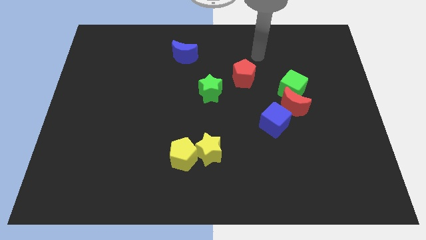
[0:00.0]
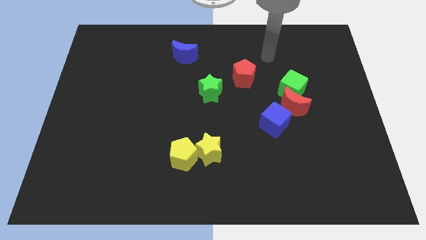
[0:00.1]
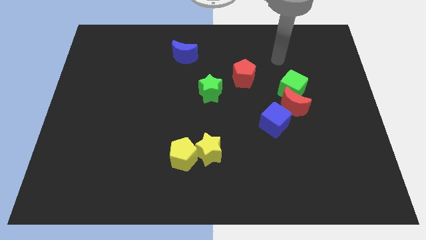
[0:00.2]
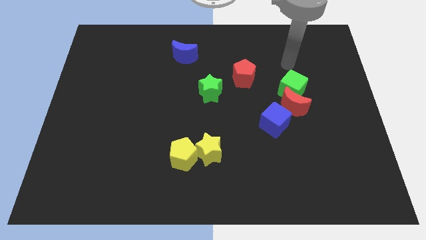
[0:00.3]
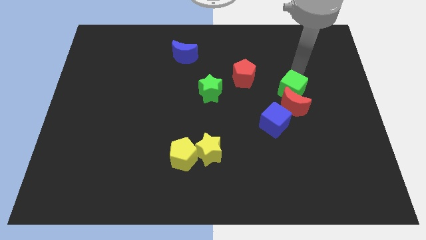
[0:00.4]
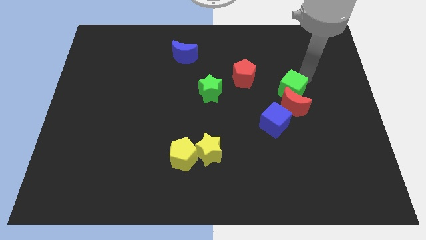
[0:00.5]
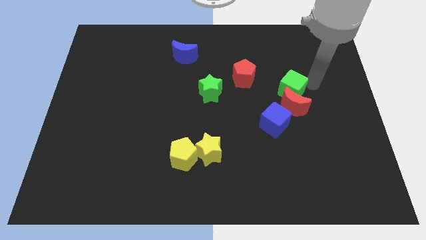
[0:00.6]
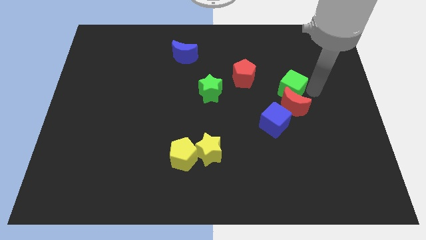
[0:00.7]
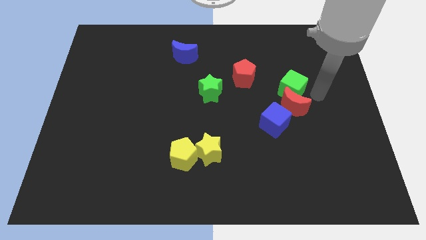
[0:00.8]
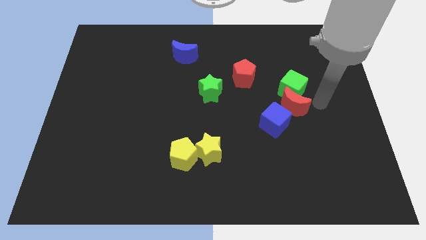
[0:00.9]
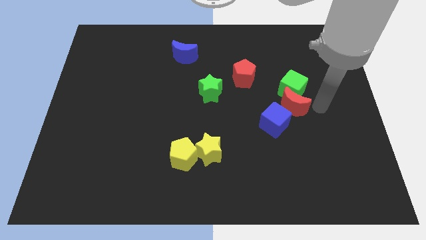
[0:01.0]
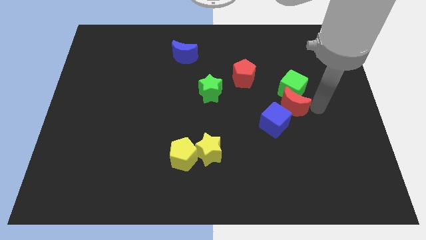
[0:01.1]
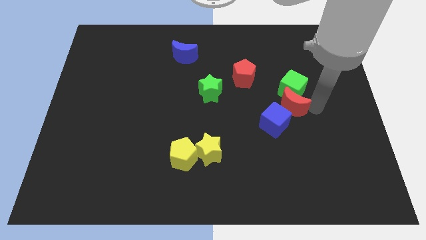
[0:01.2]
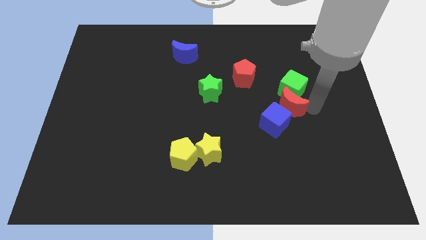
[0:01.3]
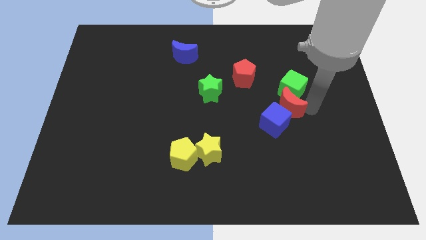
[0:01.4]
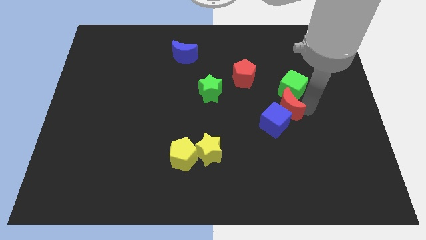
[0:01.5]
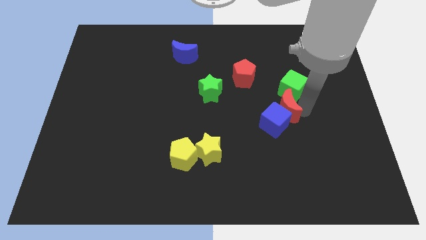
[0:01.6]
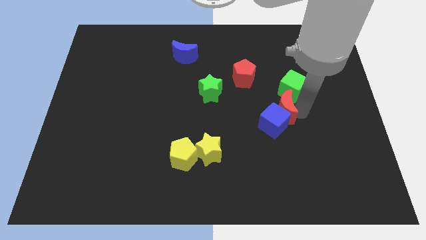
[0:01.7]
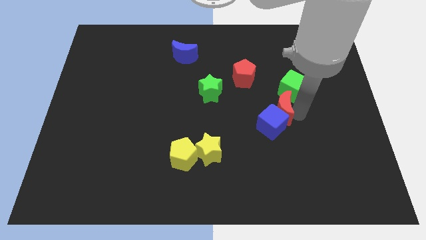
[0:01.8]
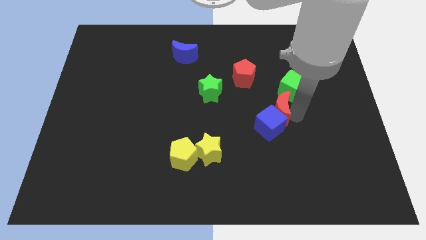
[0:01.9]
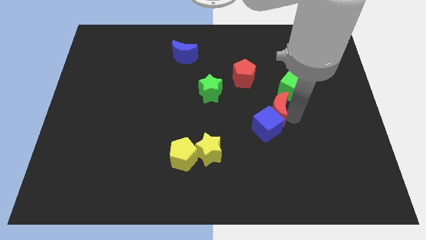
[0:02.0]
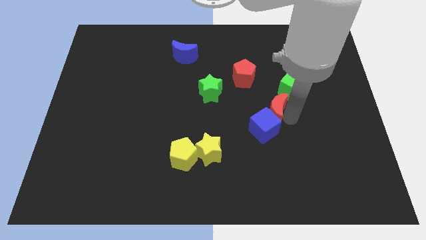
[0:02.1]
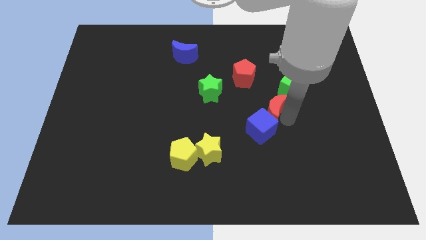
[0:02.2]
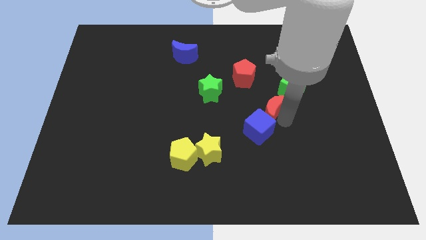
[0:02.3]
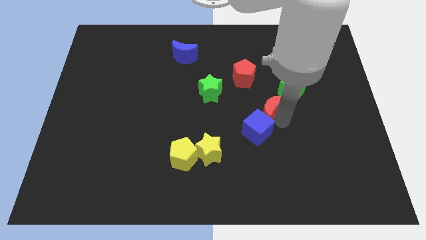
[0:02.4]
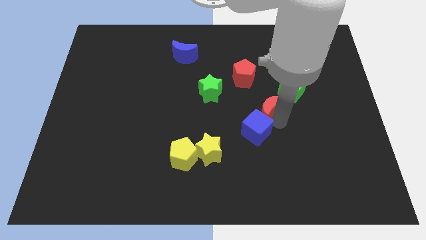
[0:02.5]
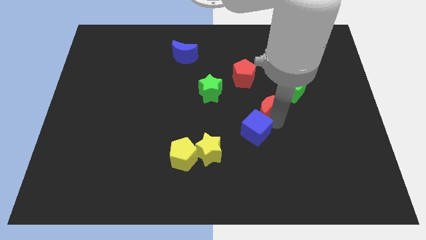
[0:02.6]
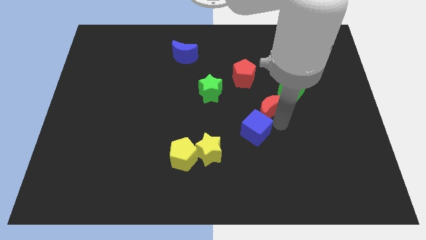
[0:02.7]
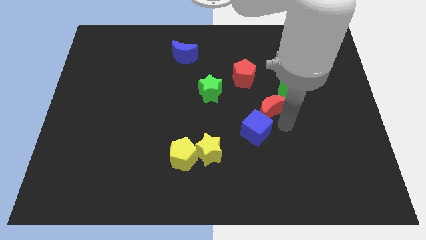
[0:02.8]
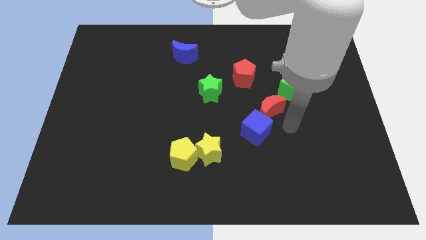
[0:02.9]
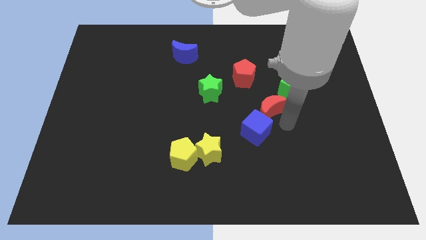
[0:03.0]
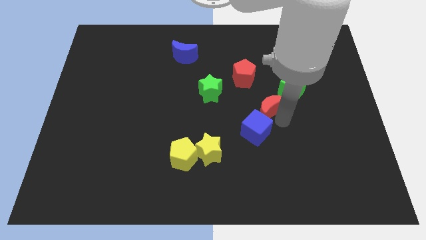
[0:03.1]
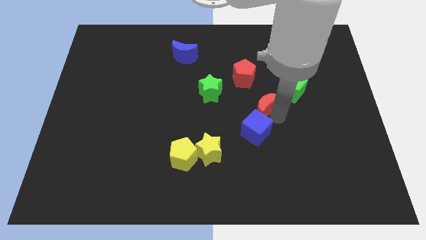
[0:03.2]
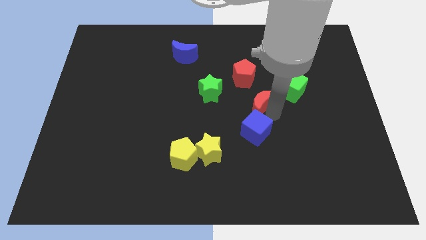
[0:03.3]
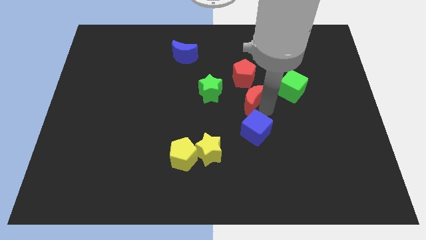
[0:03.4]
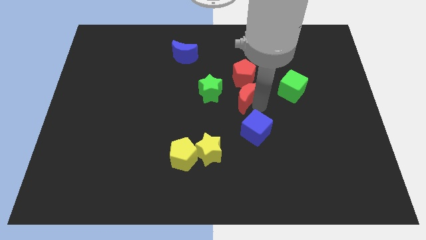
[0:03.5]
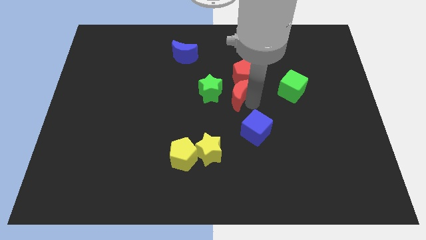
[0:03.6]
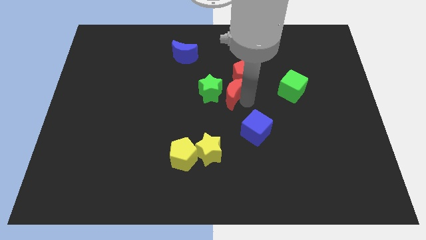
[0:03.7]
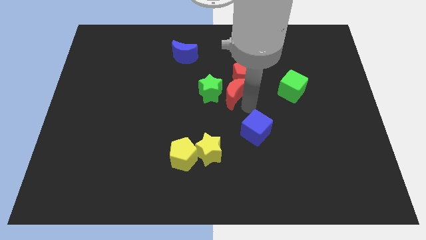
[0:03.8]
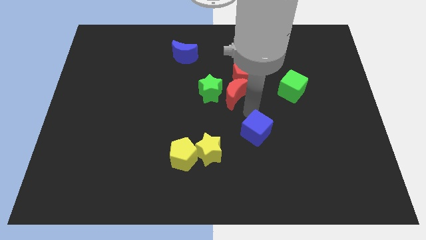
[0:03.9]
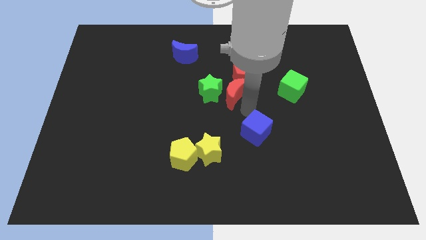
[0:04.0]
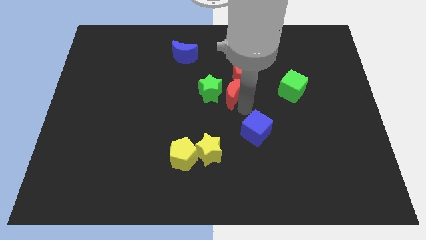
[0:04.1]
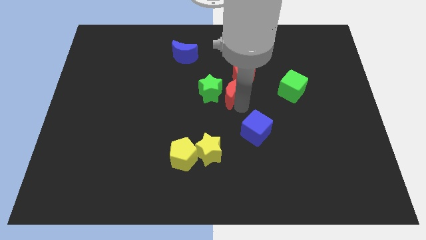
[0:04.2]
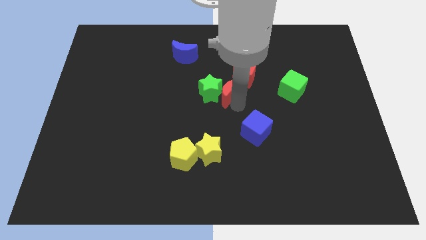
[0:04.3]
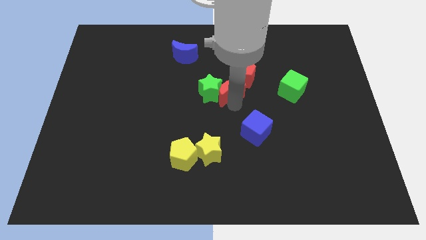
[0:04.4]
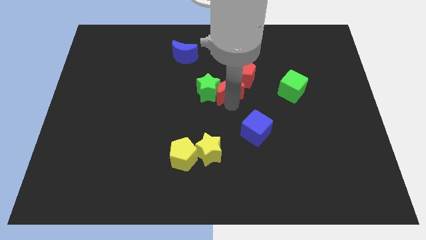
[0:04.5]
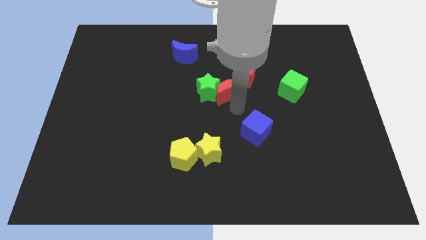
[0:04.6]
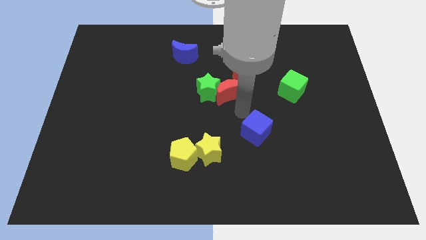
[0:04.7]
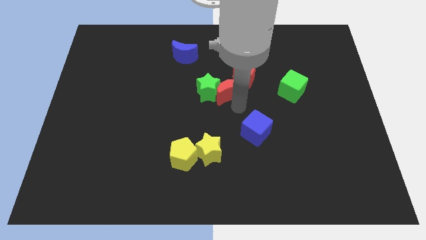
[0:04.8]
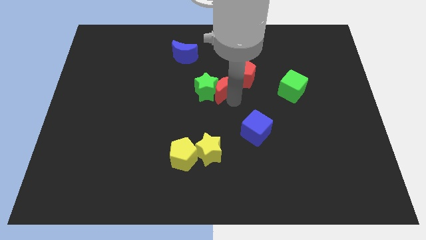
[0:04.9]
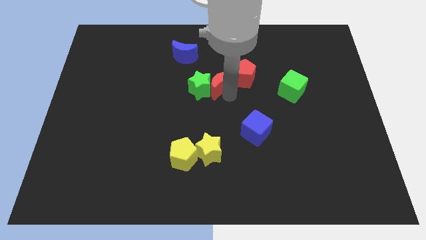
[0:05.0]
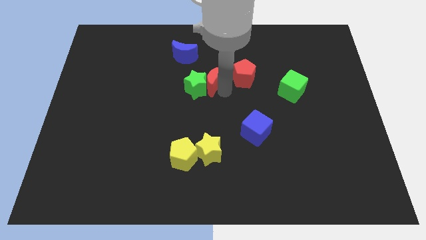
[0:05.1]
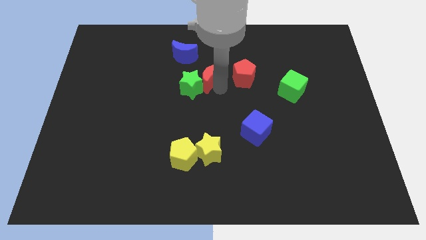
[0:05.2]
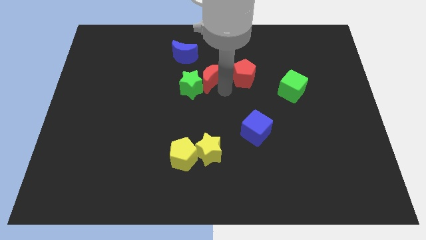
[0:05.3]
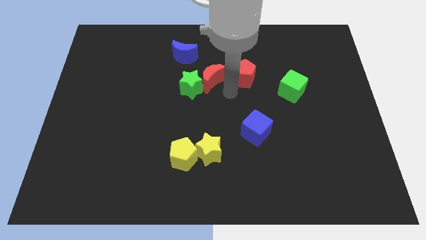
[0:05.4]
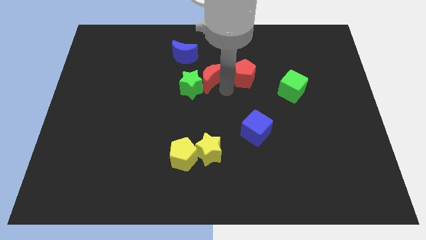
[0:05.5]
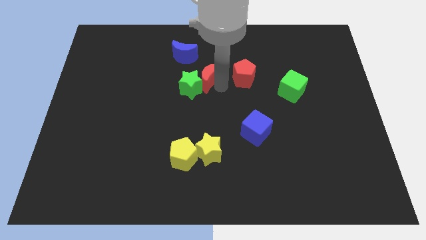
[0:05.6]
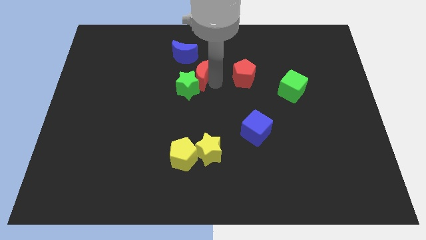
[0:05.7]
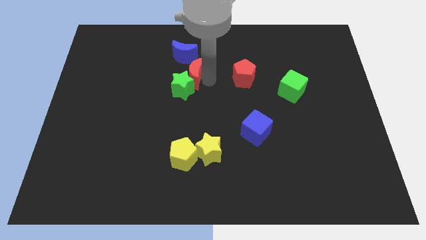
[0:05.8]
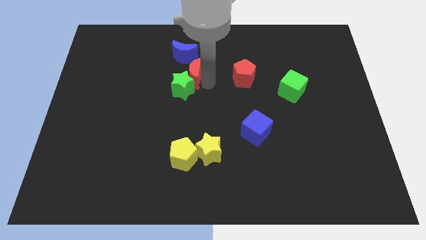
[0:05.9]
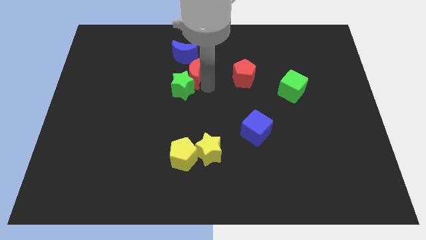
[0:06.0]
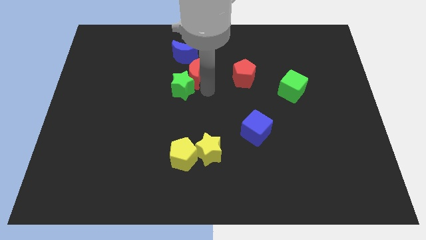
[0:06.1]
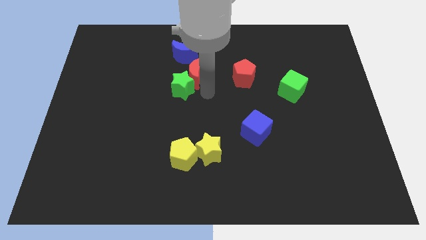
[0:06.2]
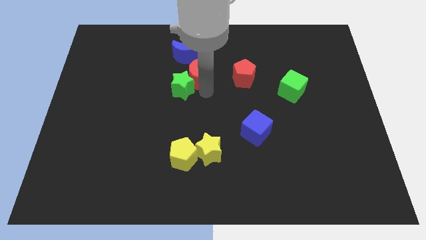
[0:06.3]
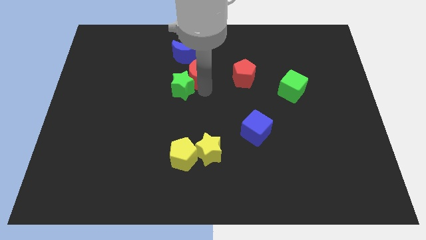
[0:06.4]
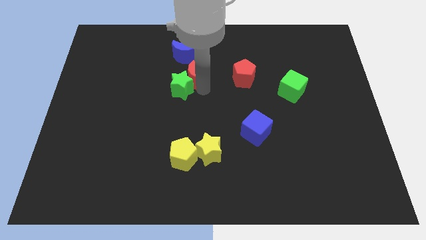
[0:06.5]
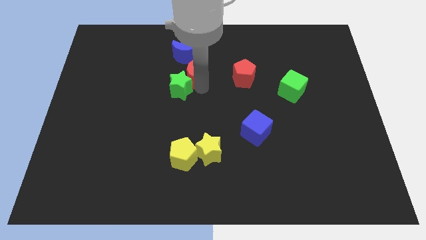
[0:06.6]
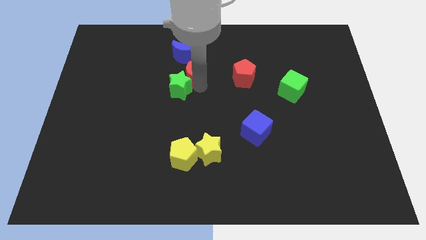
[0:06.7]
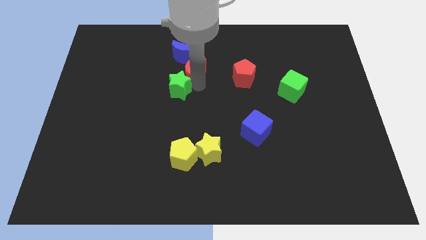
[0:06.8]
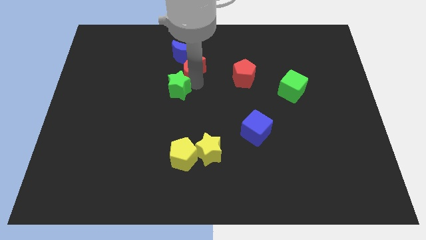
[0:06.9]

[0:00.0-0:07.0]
move the red moon next to the blue moon
